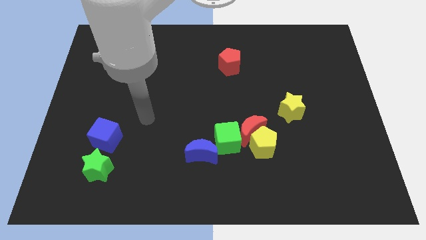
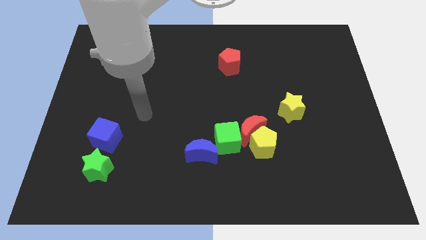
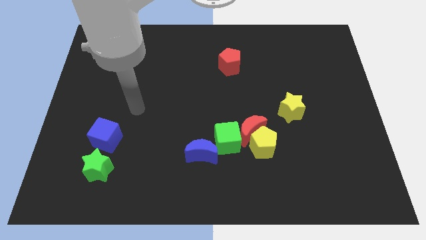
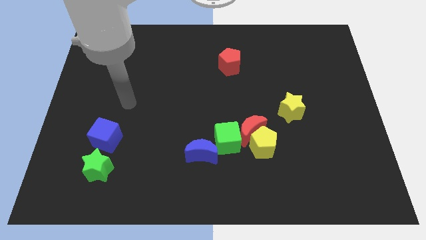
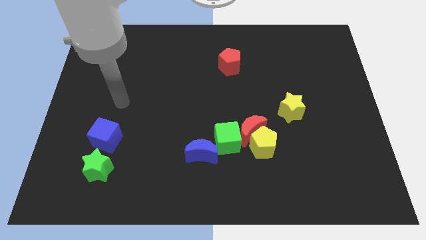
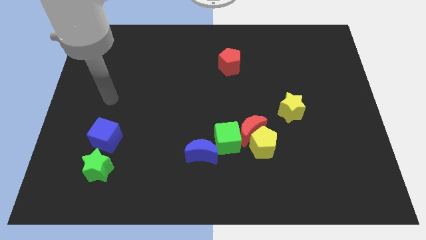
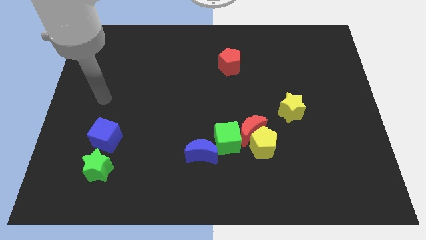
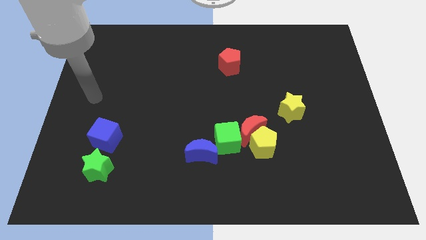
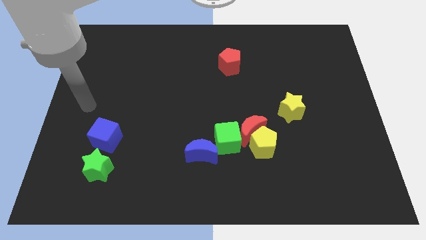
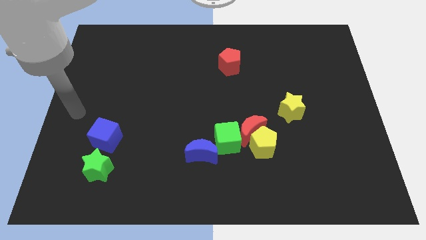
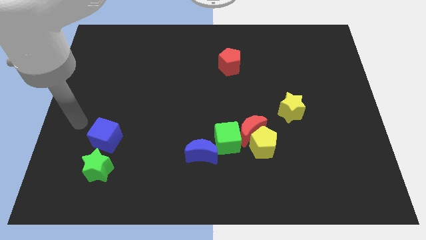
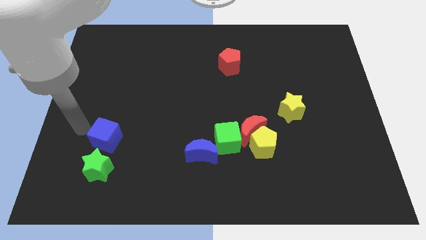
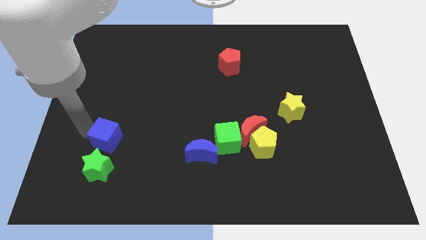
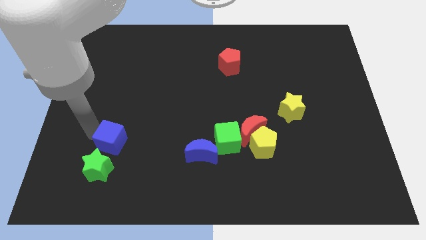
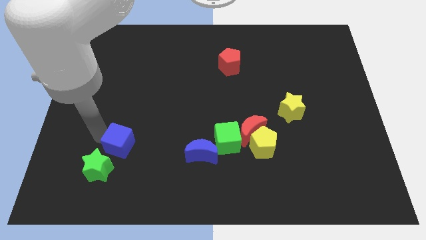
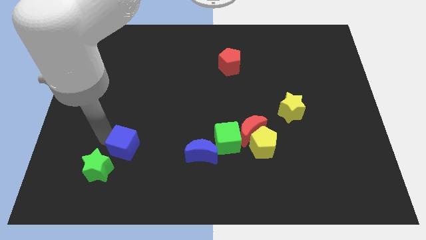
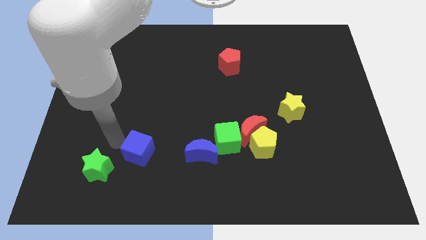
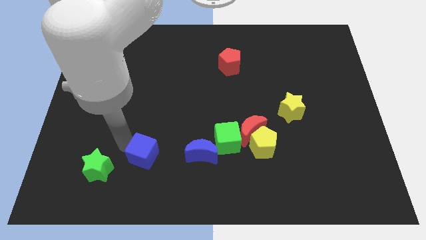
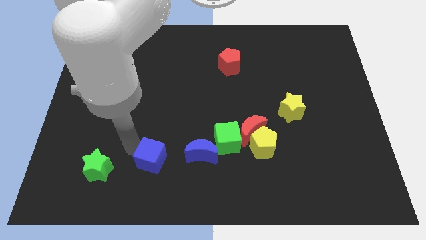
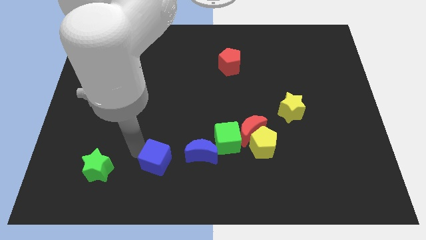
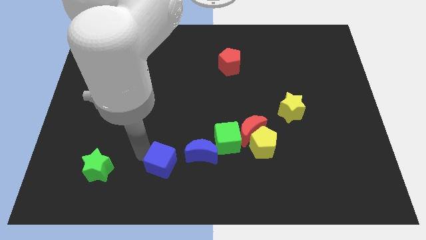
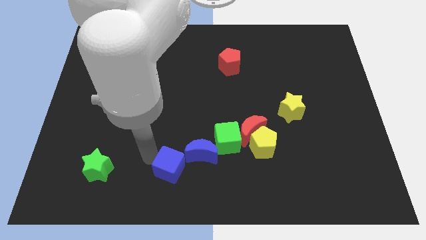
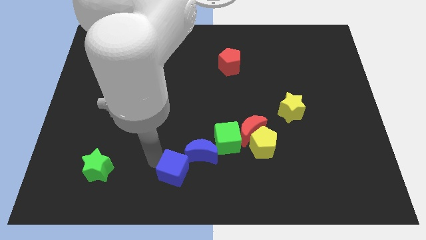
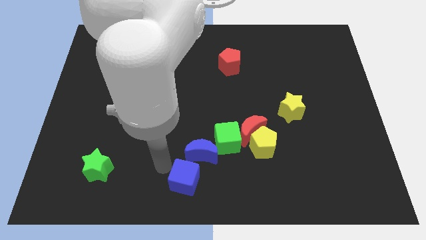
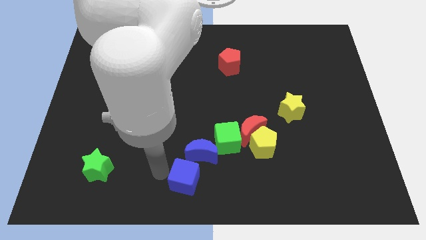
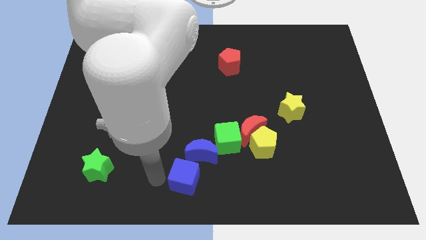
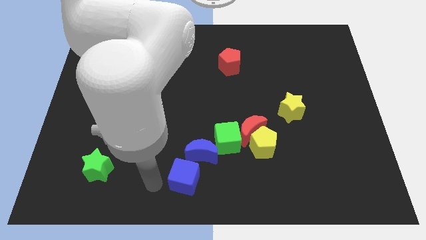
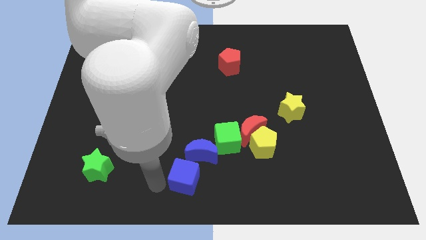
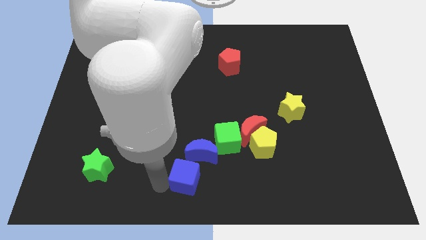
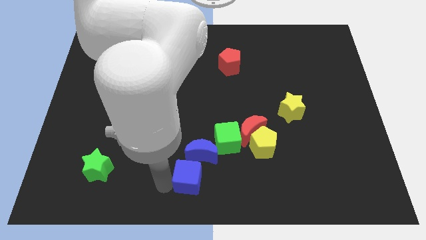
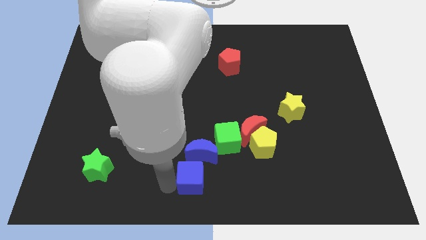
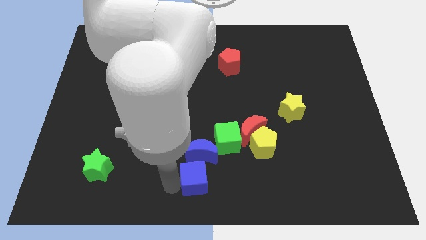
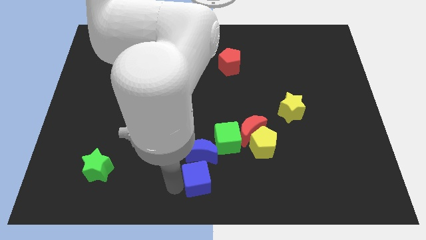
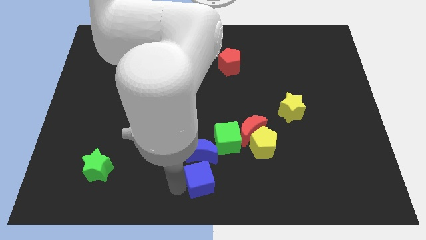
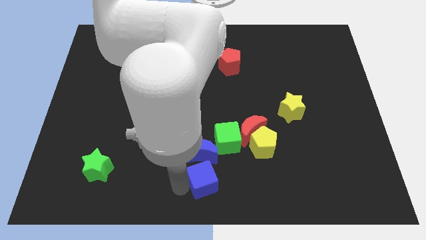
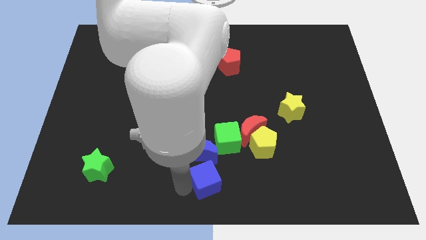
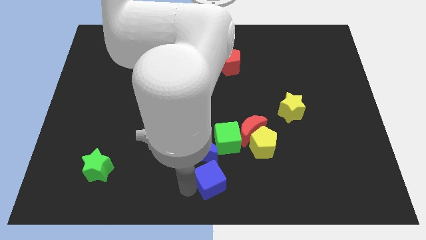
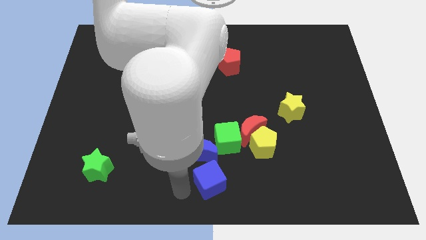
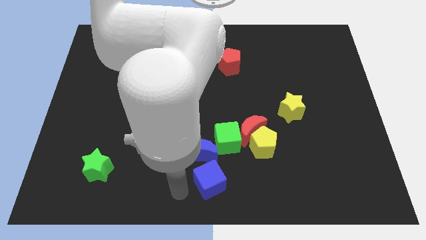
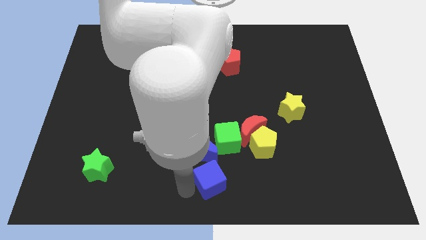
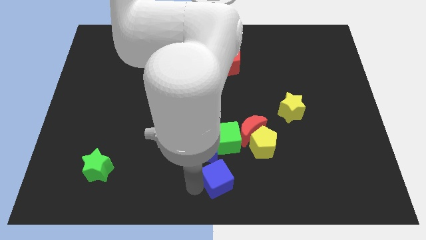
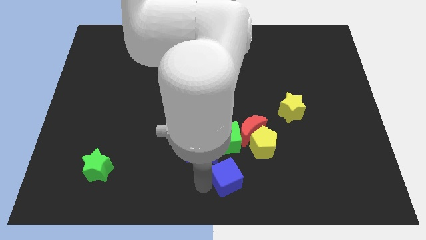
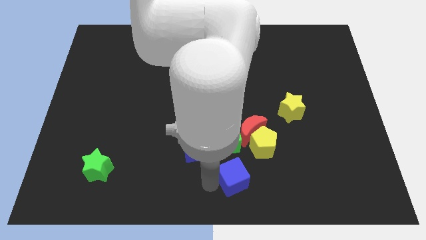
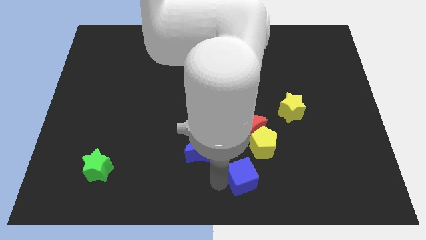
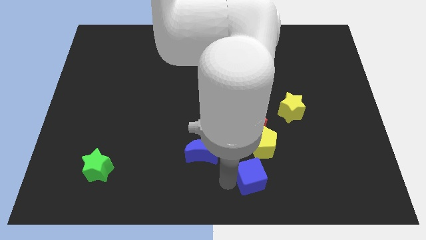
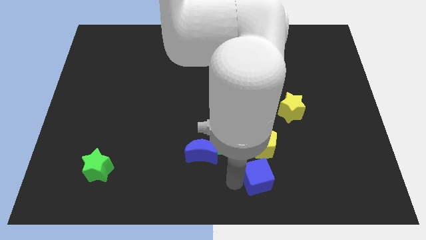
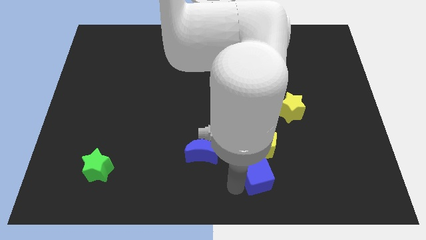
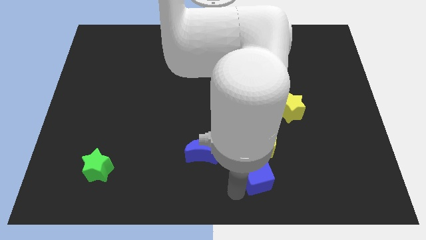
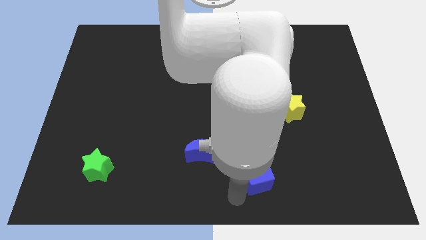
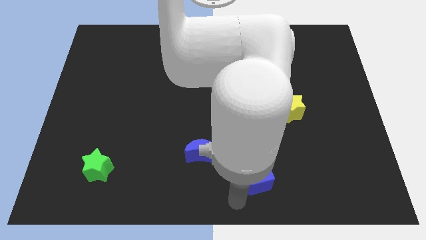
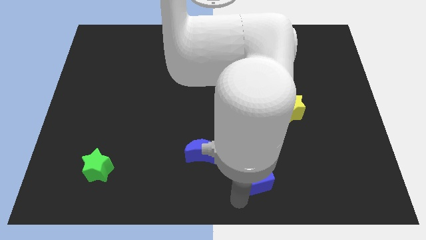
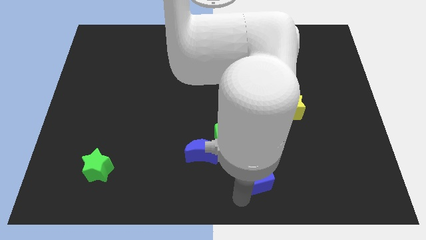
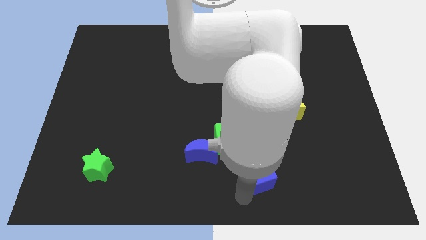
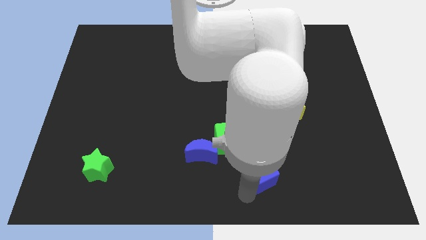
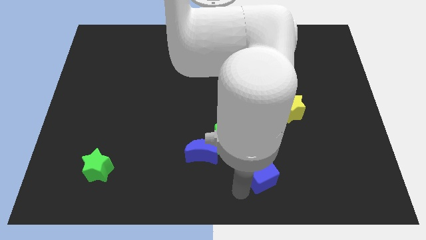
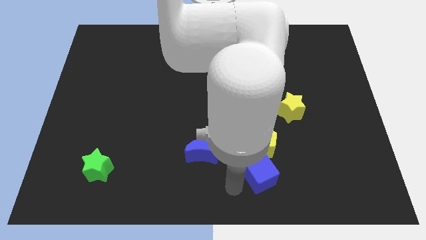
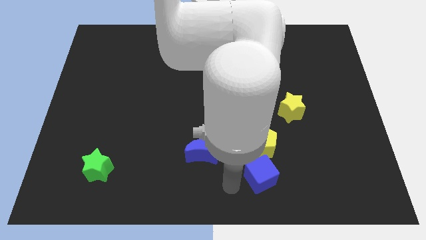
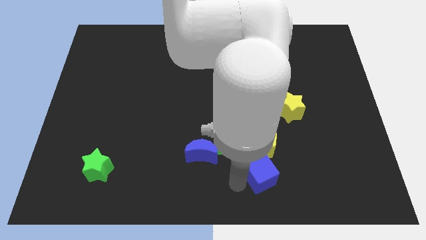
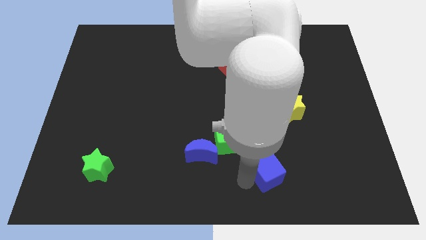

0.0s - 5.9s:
move the blue cube to the bottom right side of the yellow pentagon

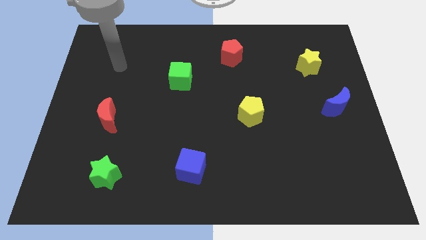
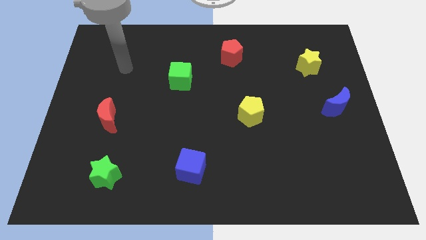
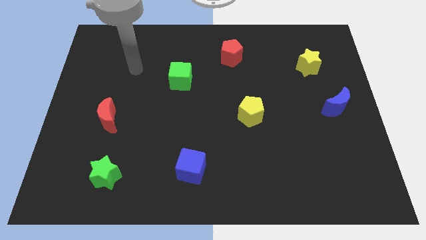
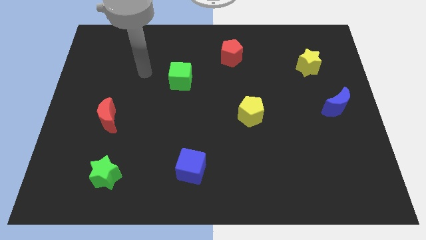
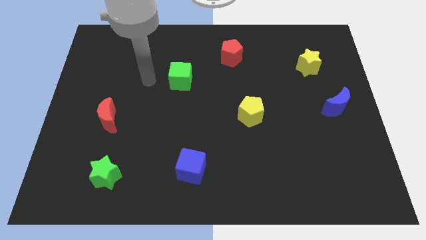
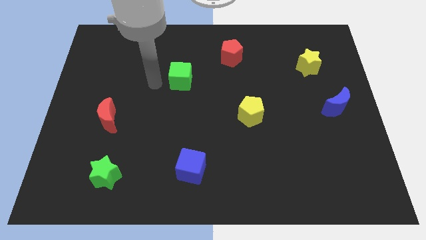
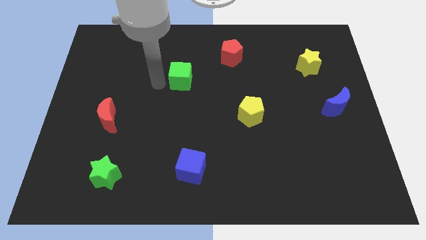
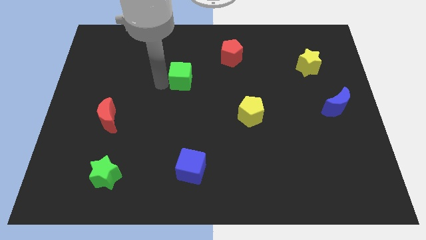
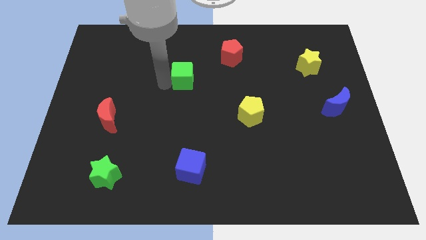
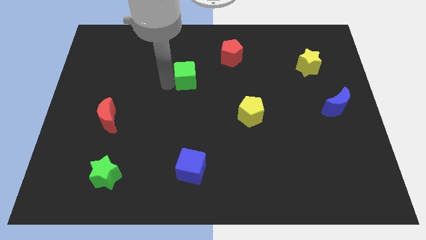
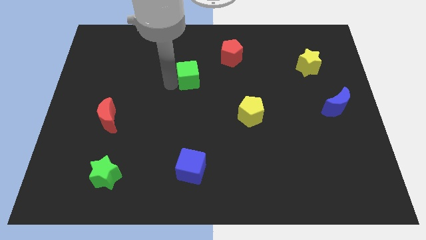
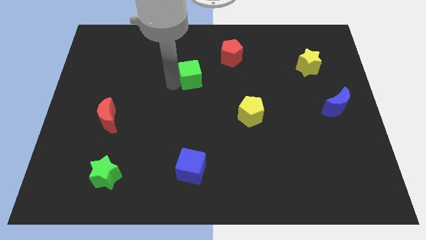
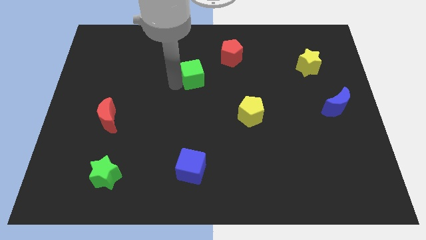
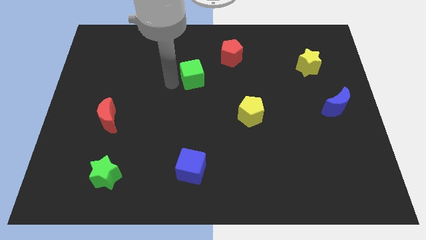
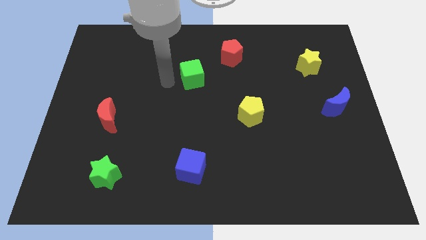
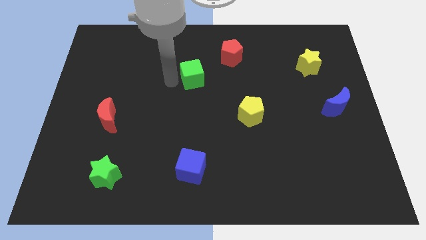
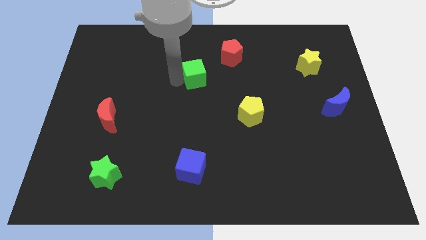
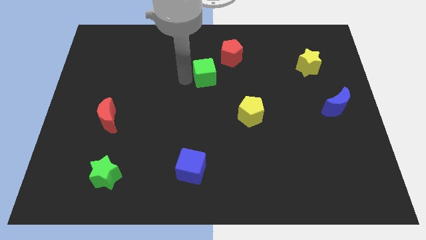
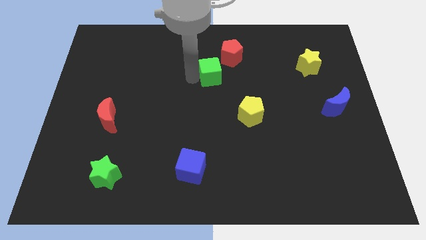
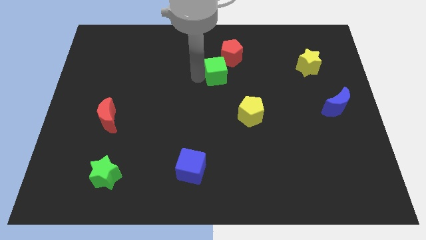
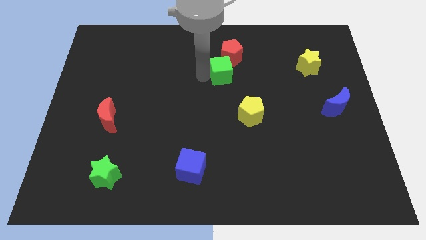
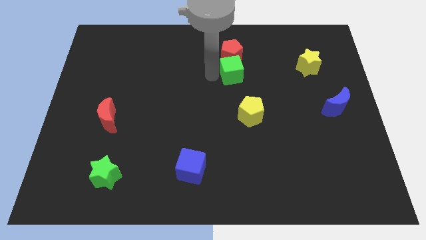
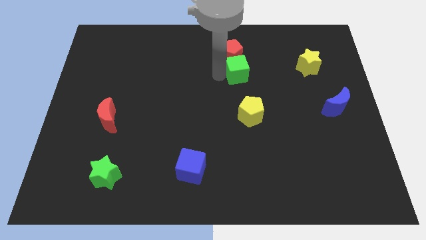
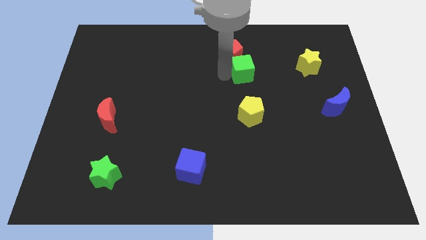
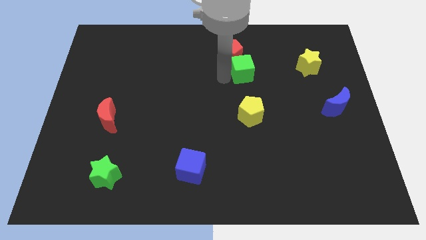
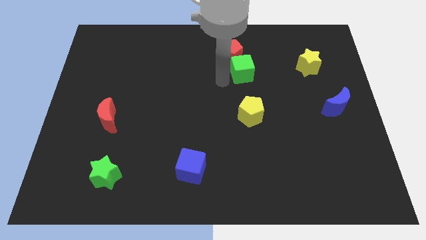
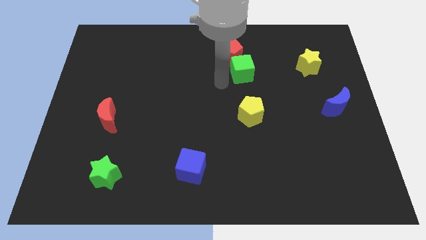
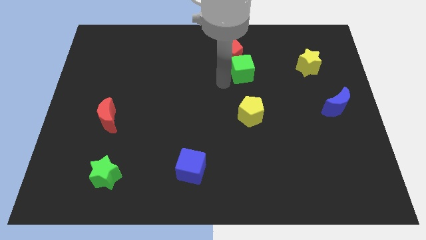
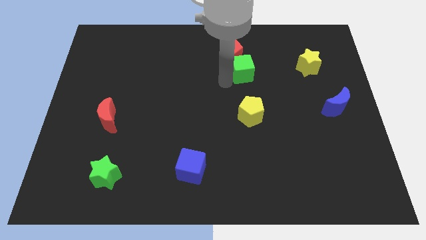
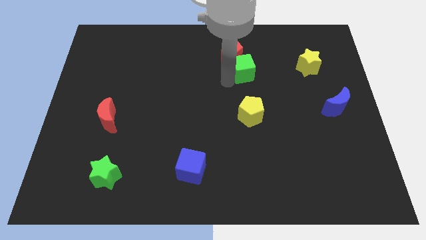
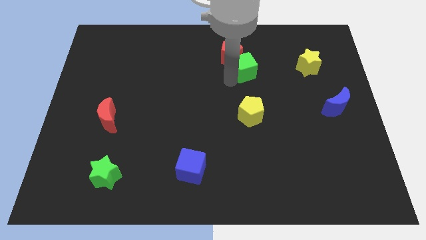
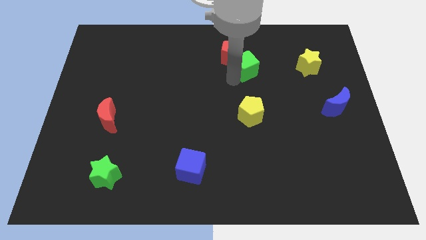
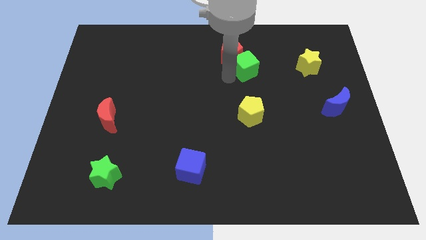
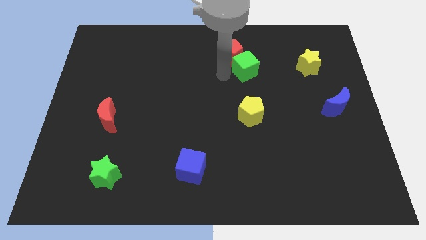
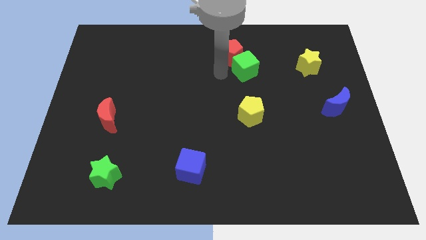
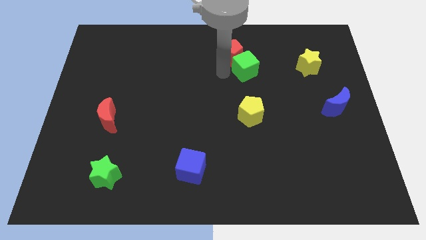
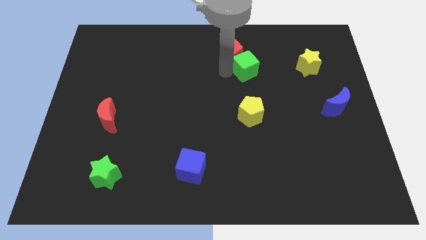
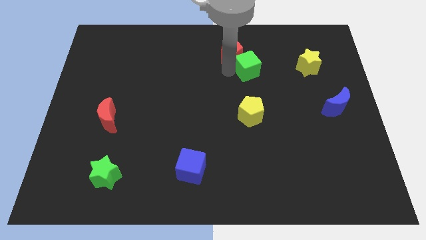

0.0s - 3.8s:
slide the green cube to the left side of the yellow star
